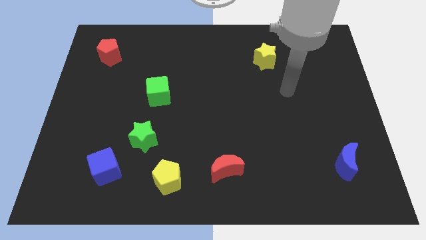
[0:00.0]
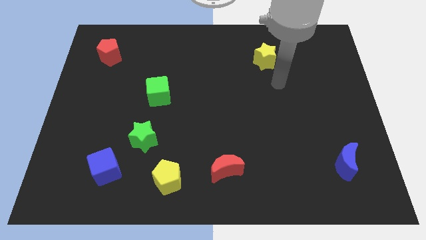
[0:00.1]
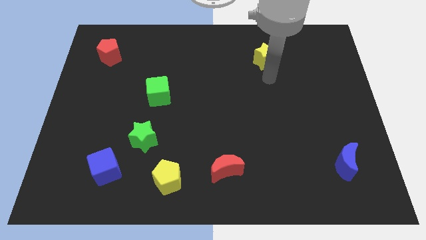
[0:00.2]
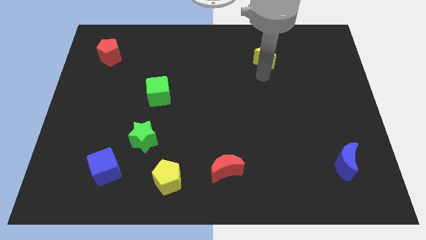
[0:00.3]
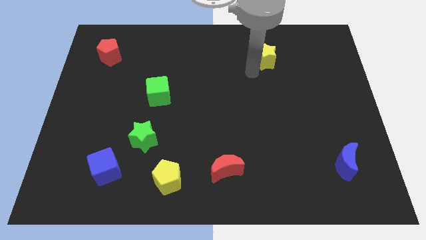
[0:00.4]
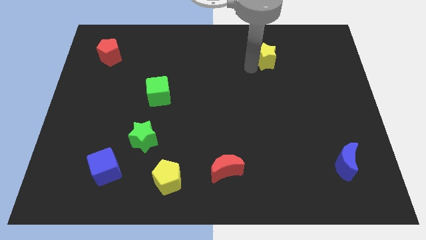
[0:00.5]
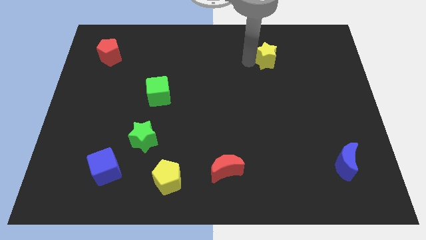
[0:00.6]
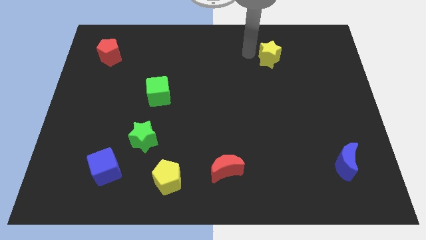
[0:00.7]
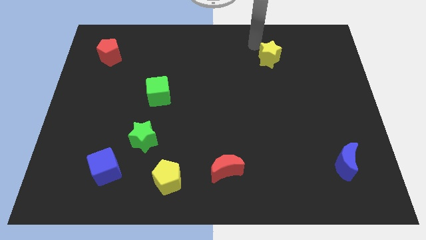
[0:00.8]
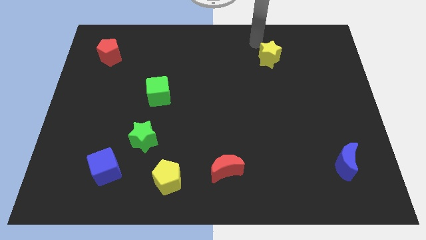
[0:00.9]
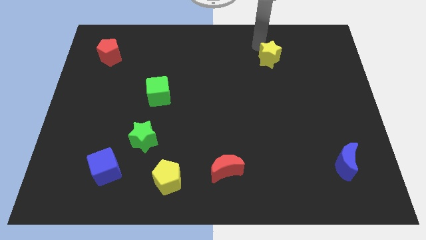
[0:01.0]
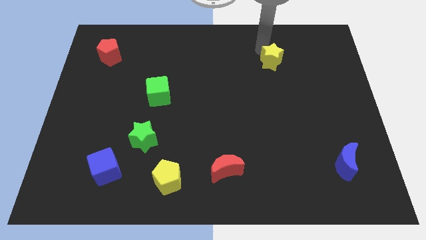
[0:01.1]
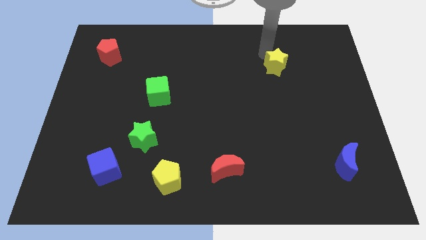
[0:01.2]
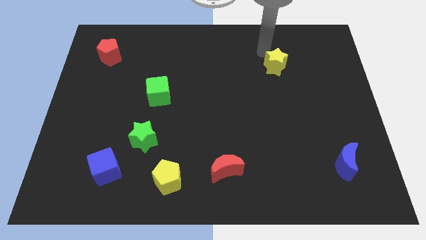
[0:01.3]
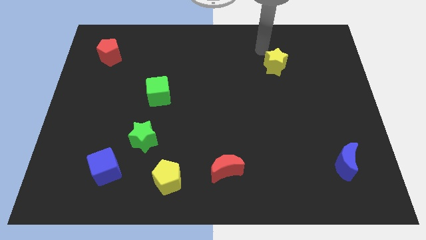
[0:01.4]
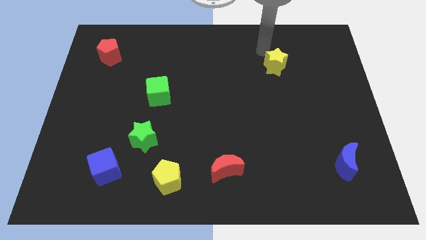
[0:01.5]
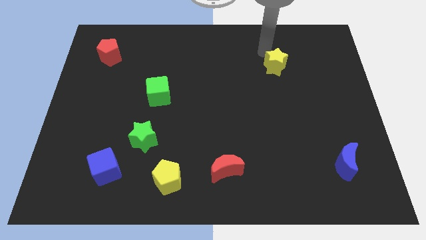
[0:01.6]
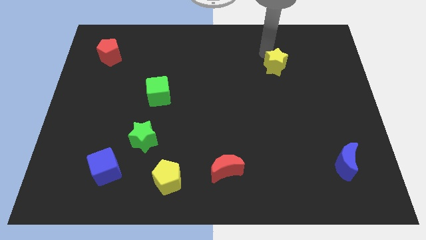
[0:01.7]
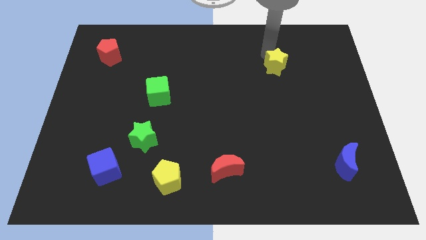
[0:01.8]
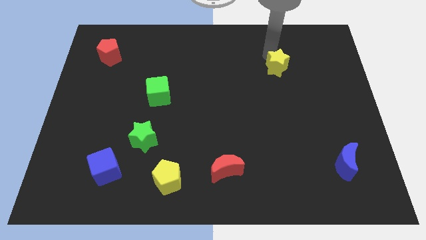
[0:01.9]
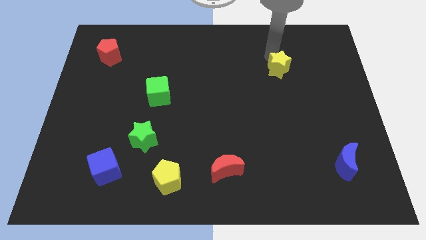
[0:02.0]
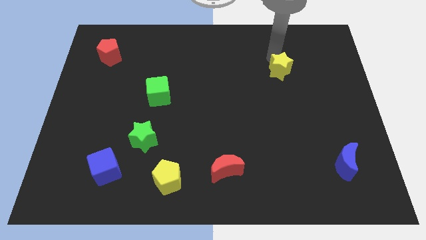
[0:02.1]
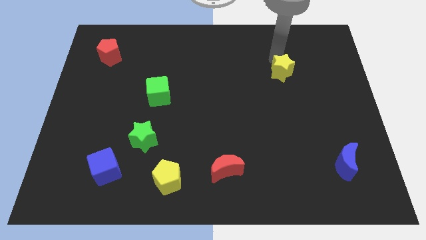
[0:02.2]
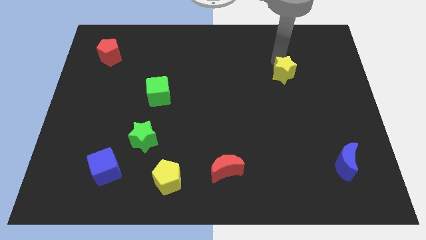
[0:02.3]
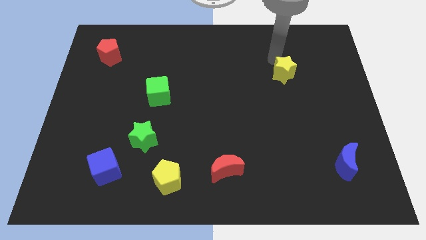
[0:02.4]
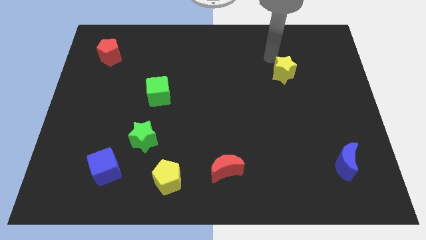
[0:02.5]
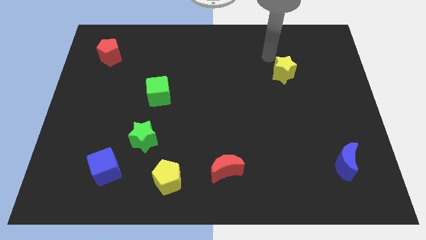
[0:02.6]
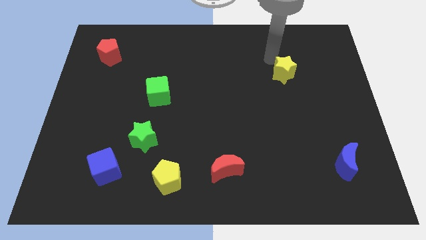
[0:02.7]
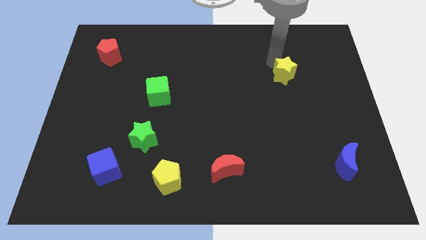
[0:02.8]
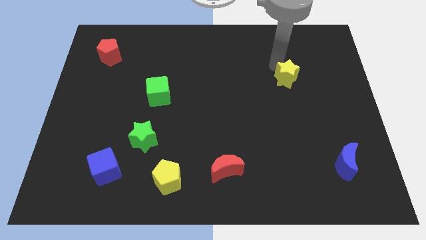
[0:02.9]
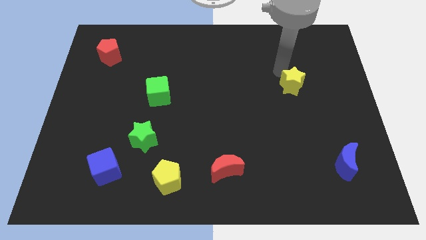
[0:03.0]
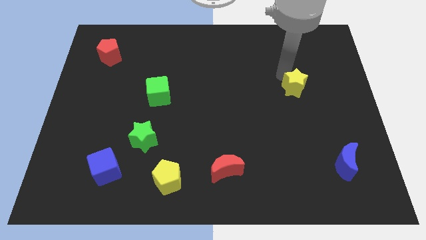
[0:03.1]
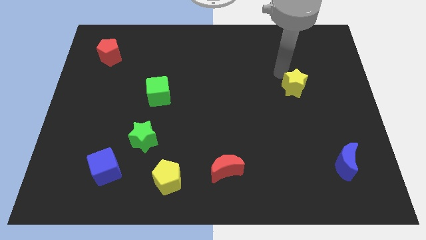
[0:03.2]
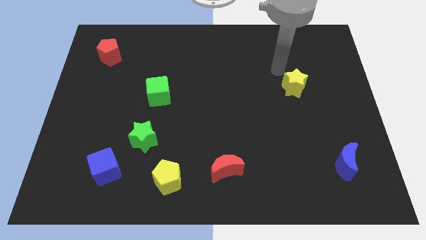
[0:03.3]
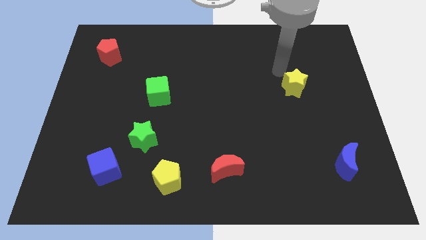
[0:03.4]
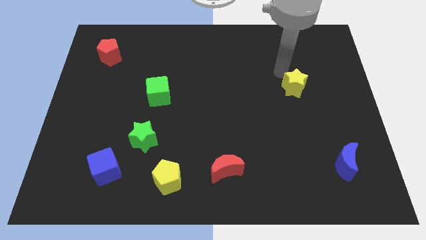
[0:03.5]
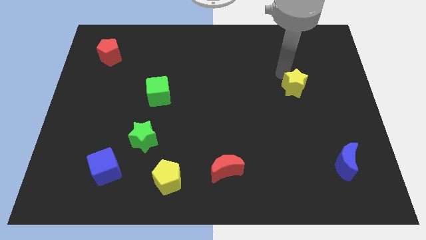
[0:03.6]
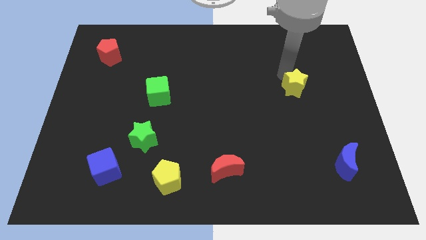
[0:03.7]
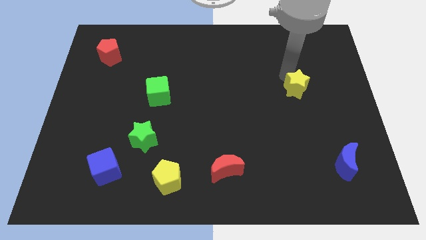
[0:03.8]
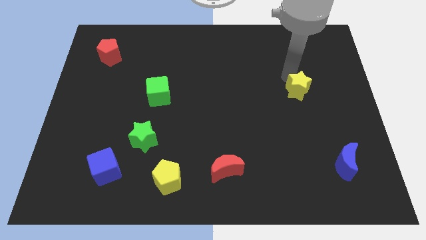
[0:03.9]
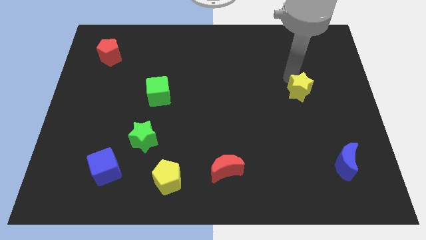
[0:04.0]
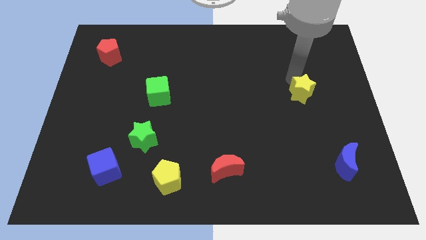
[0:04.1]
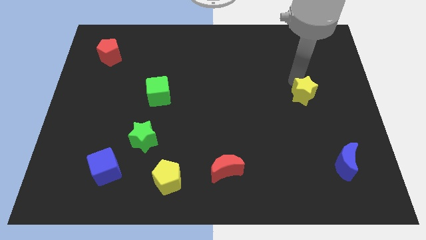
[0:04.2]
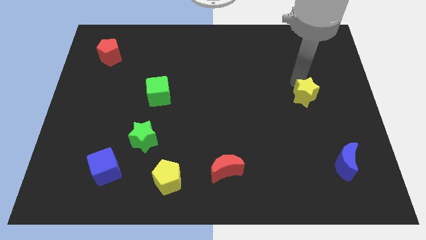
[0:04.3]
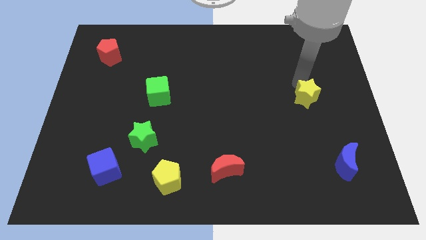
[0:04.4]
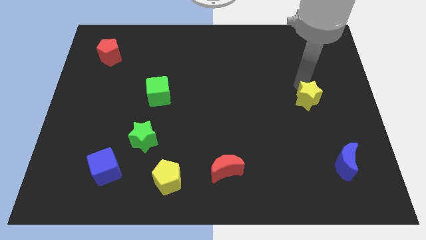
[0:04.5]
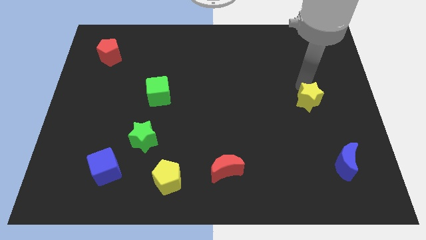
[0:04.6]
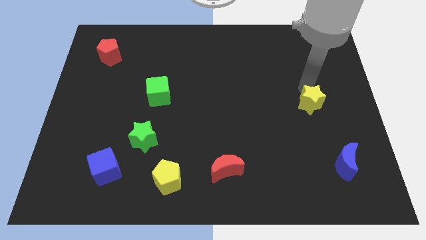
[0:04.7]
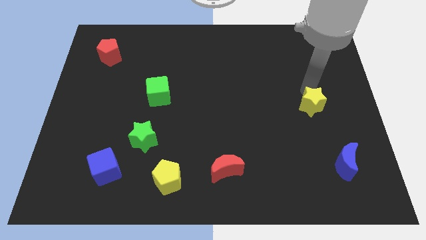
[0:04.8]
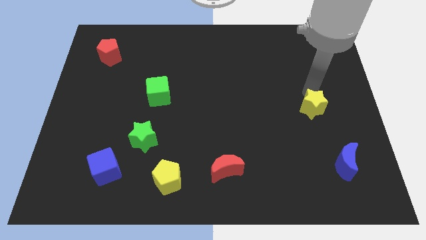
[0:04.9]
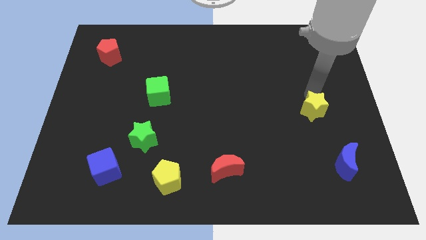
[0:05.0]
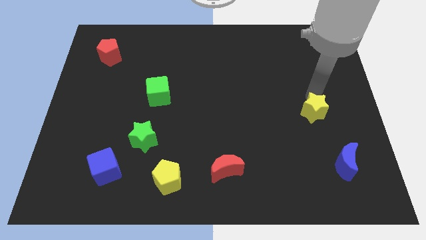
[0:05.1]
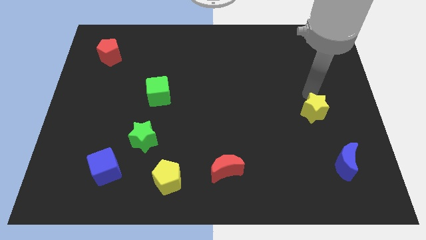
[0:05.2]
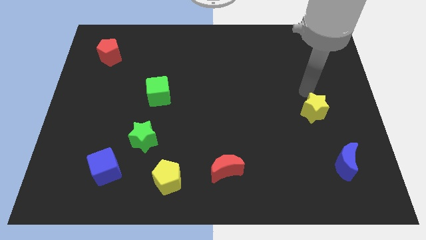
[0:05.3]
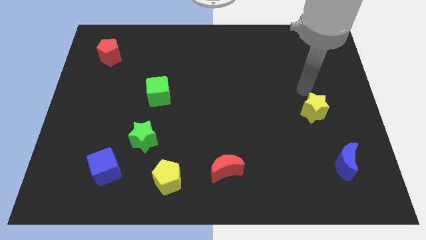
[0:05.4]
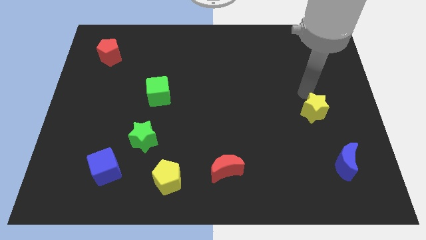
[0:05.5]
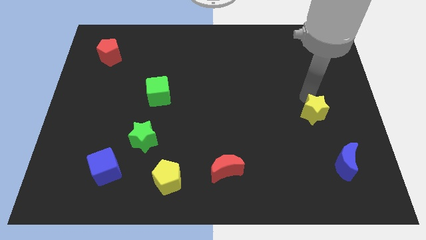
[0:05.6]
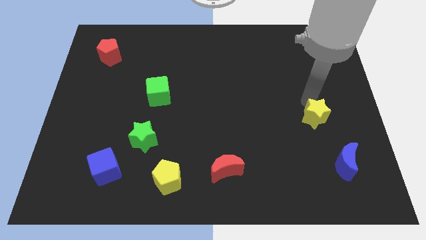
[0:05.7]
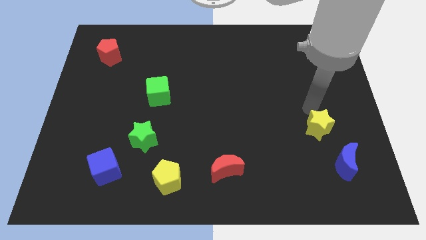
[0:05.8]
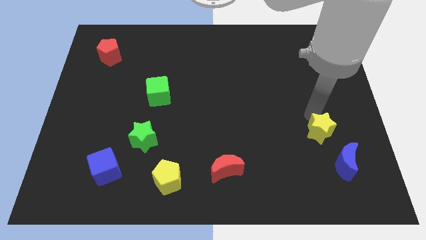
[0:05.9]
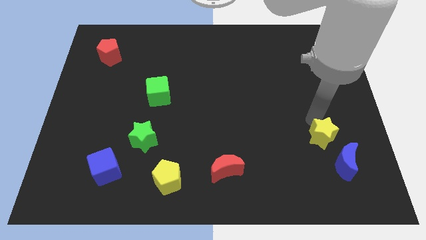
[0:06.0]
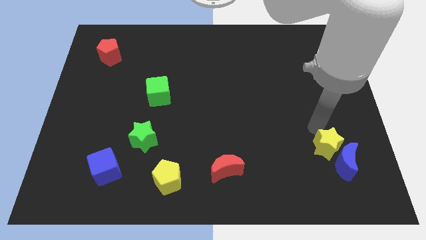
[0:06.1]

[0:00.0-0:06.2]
slide the yellow star to the blue moon

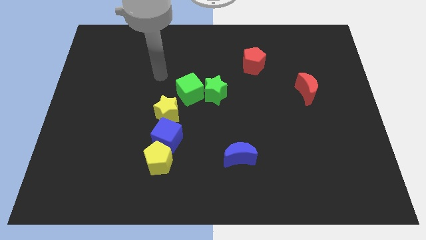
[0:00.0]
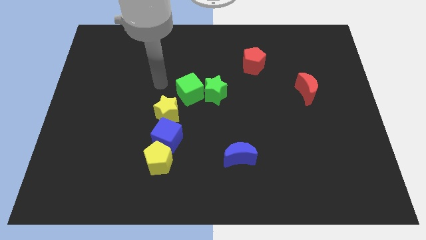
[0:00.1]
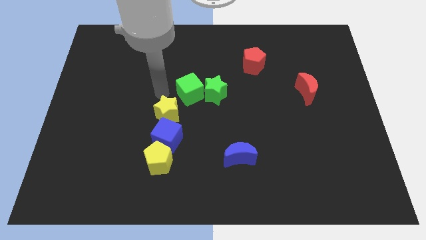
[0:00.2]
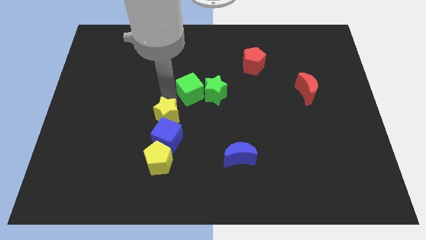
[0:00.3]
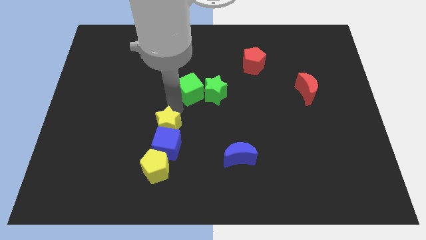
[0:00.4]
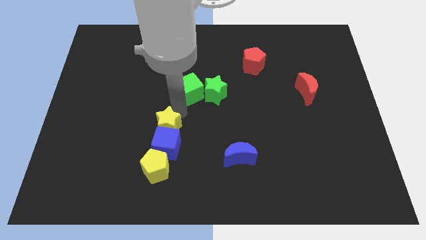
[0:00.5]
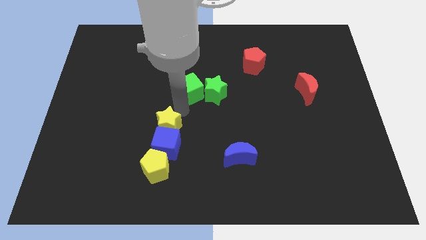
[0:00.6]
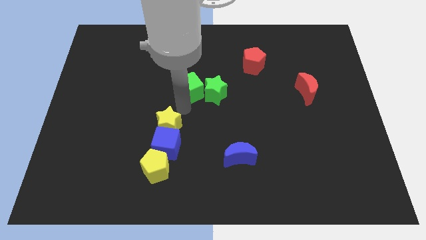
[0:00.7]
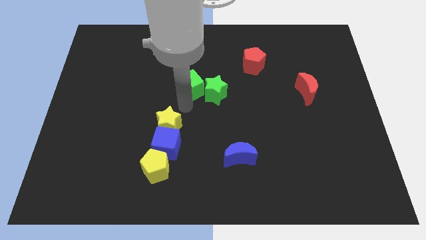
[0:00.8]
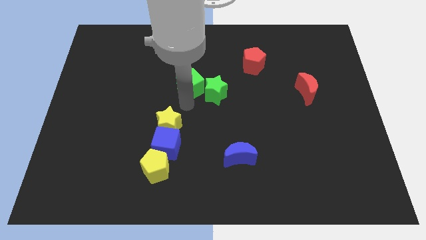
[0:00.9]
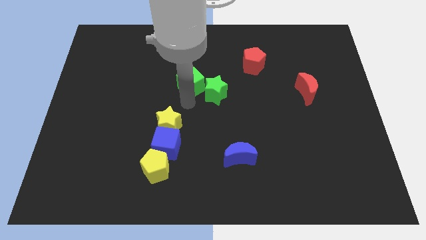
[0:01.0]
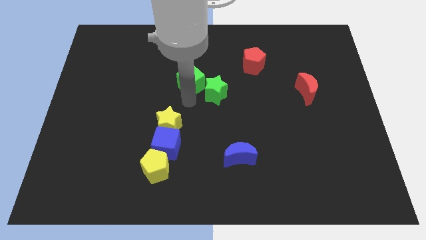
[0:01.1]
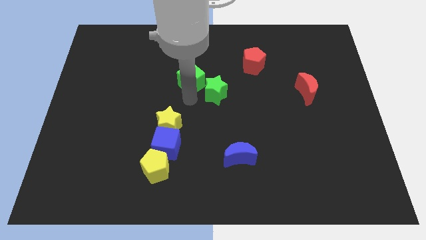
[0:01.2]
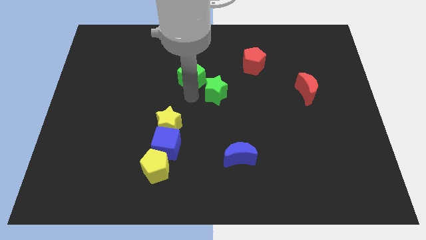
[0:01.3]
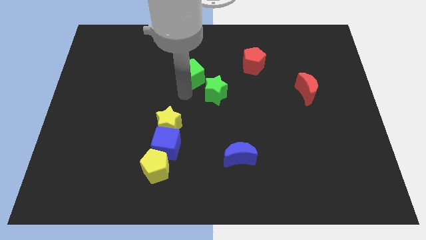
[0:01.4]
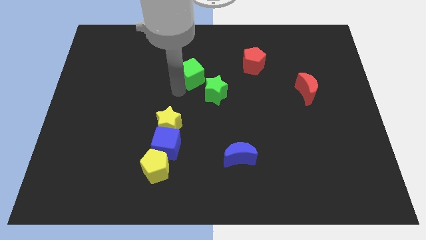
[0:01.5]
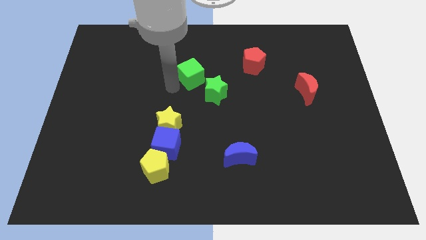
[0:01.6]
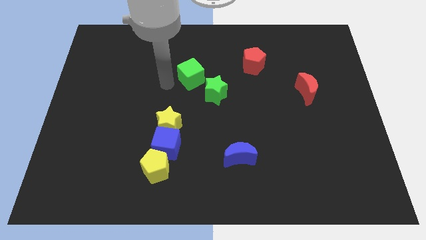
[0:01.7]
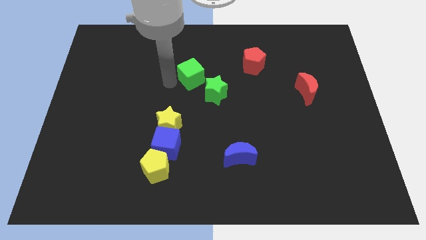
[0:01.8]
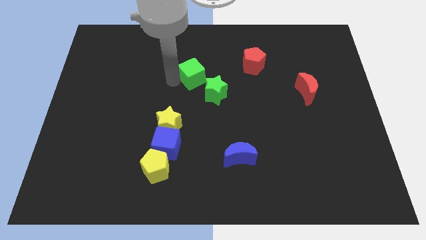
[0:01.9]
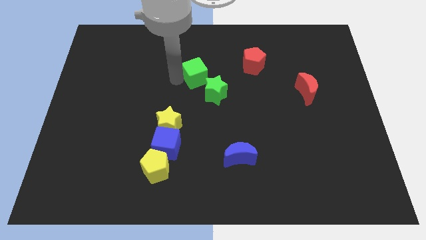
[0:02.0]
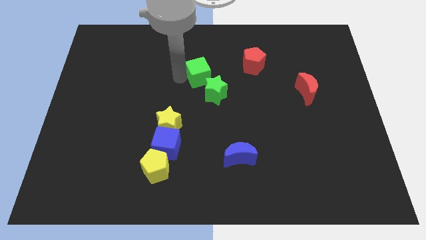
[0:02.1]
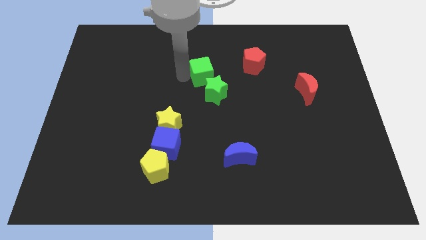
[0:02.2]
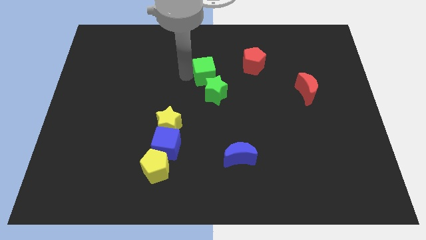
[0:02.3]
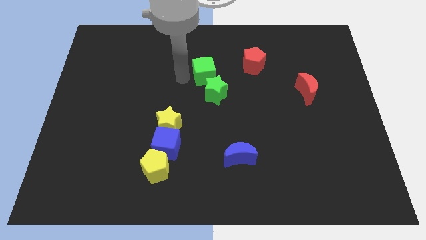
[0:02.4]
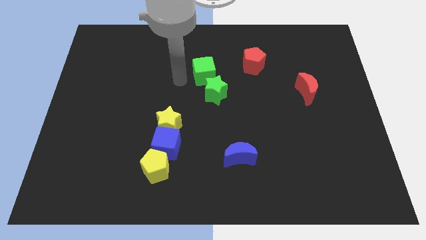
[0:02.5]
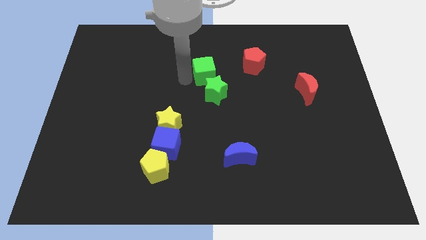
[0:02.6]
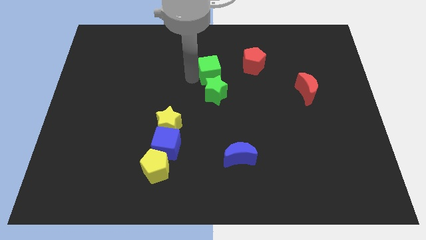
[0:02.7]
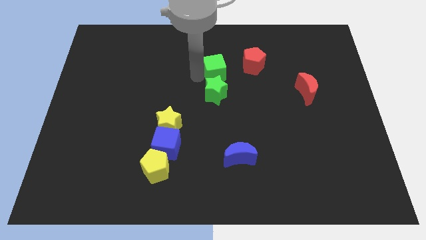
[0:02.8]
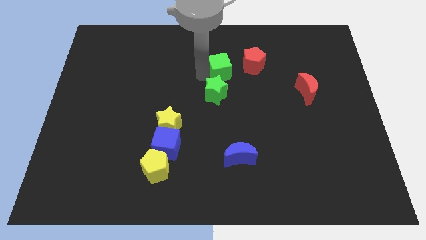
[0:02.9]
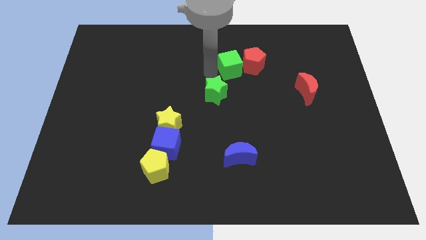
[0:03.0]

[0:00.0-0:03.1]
push the green cube to the red pentagon
